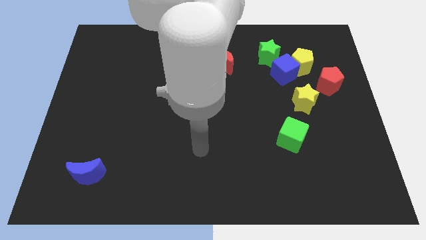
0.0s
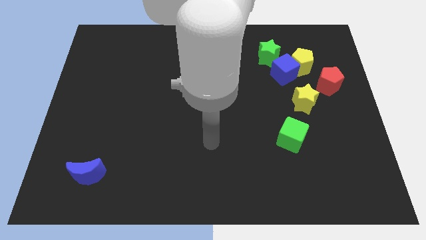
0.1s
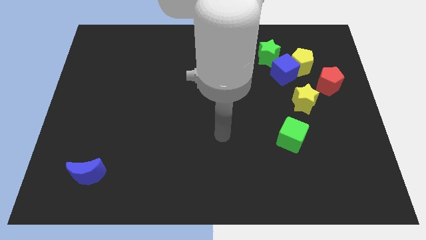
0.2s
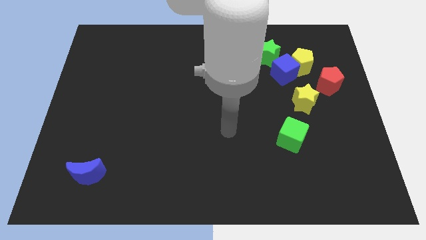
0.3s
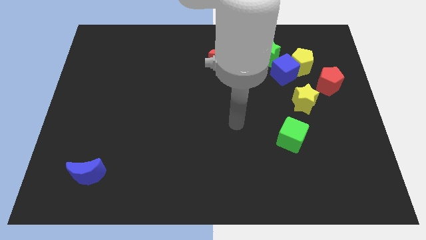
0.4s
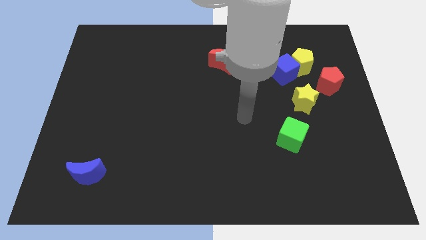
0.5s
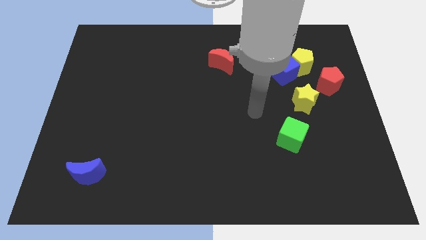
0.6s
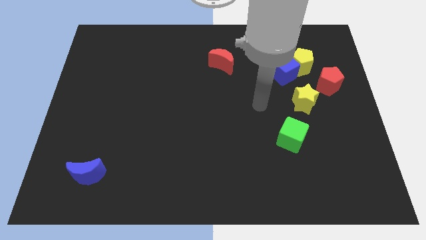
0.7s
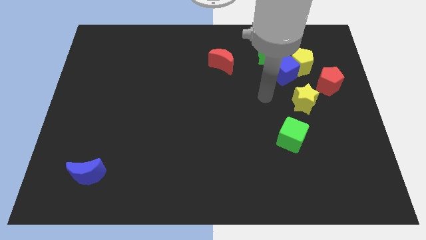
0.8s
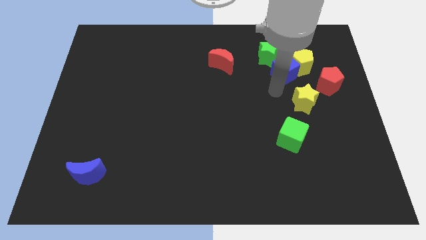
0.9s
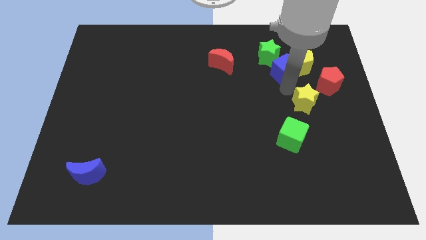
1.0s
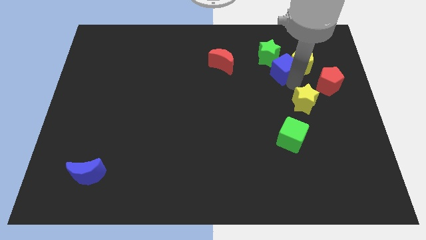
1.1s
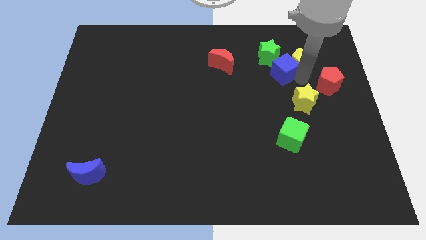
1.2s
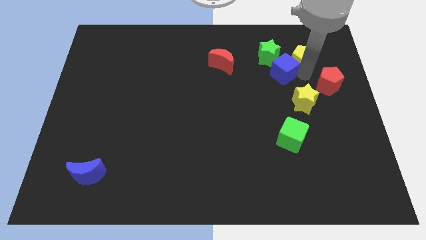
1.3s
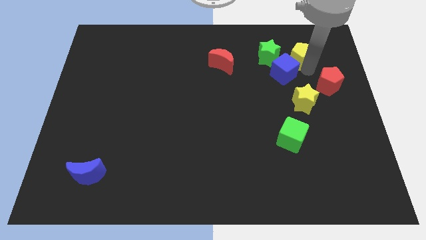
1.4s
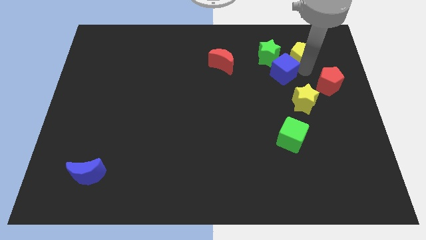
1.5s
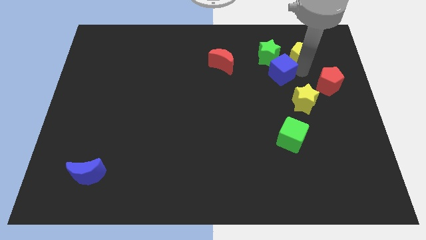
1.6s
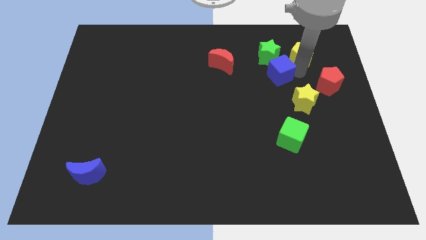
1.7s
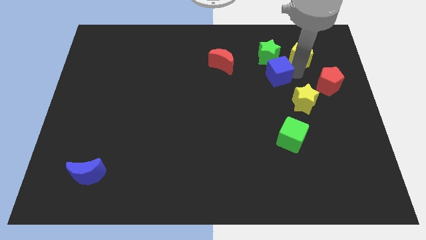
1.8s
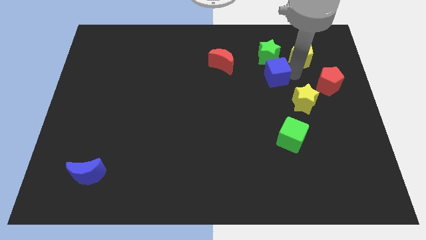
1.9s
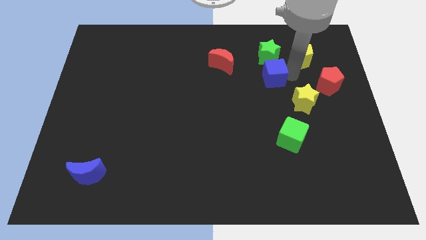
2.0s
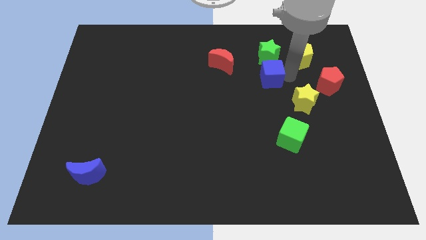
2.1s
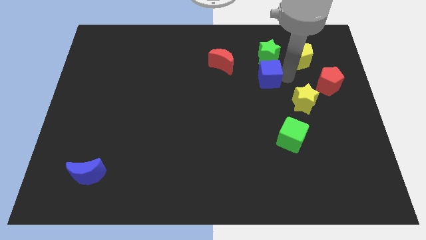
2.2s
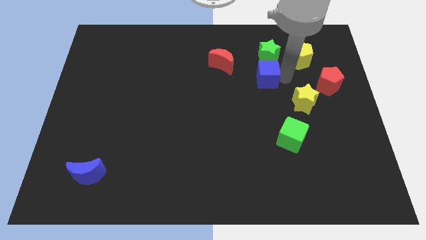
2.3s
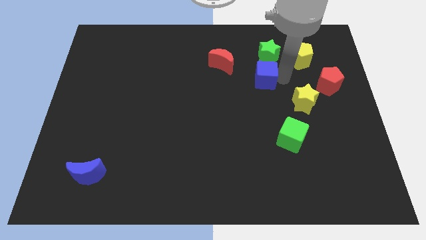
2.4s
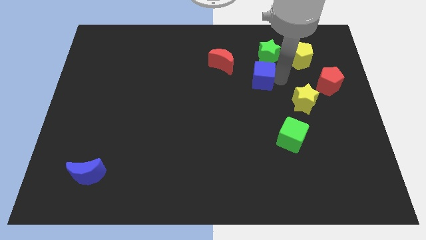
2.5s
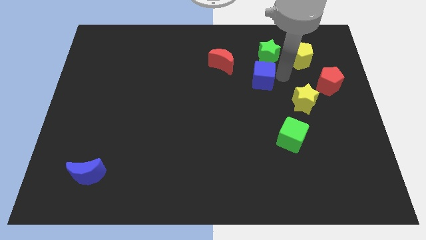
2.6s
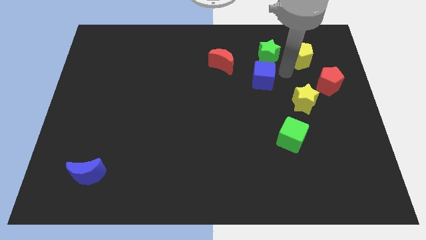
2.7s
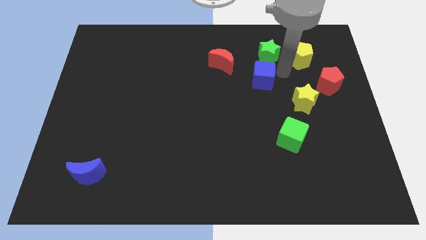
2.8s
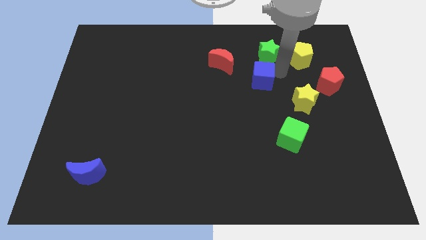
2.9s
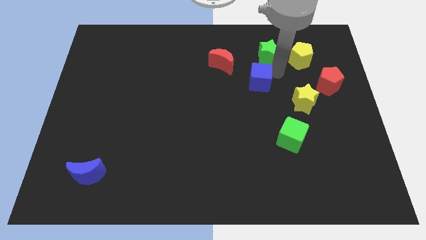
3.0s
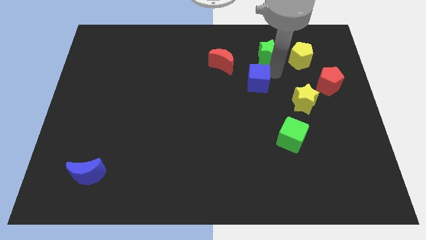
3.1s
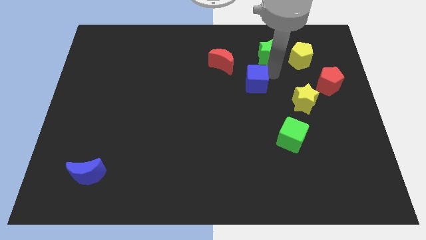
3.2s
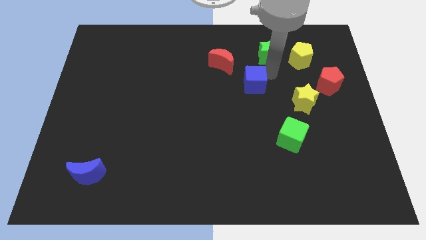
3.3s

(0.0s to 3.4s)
separate the blue cube from the clump

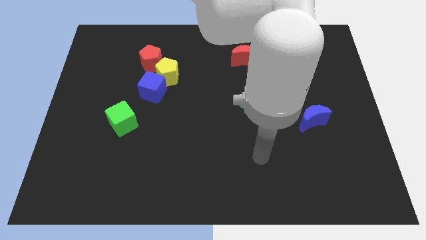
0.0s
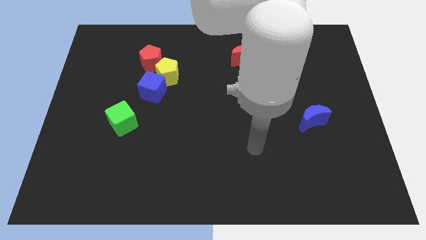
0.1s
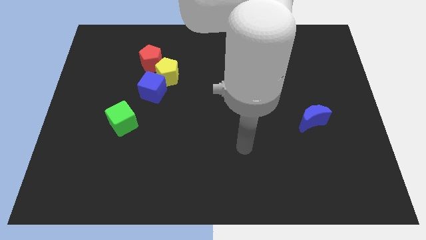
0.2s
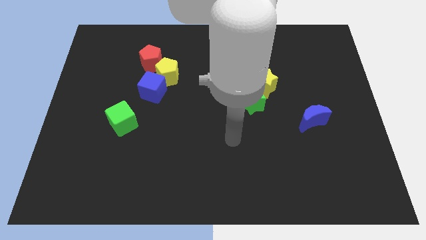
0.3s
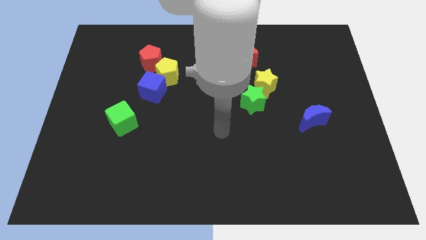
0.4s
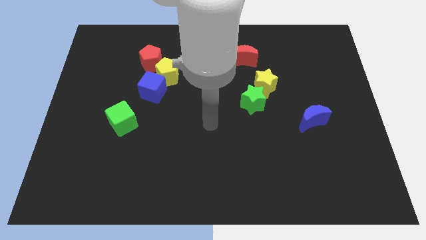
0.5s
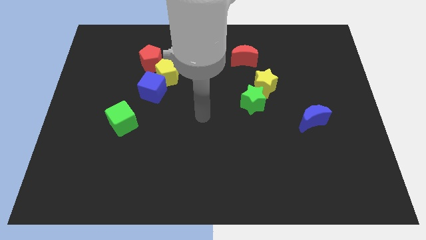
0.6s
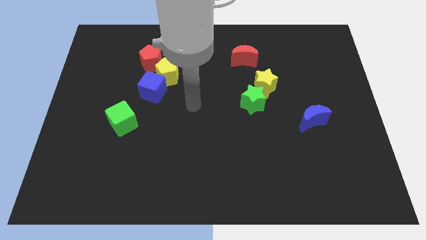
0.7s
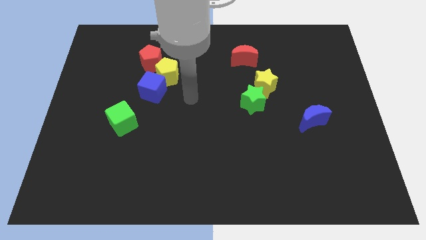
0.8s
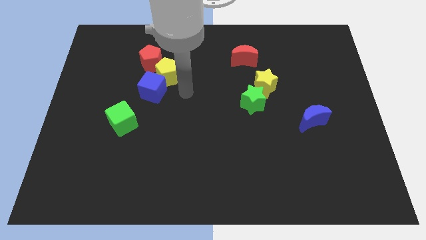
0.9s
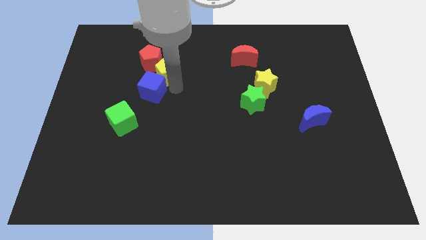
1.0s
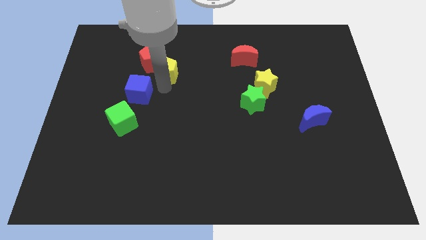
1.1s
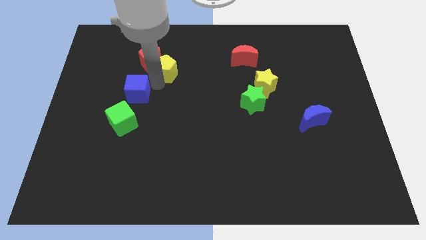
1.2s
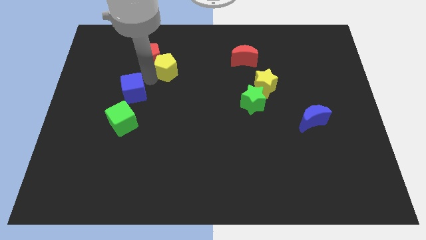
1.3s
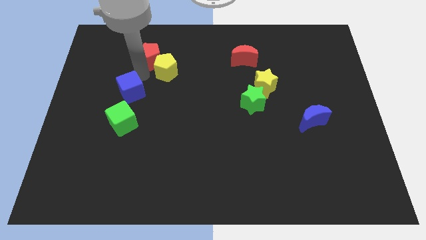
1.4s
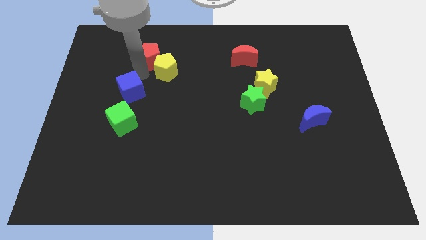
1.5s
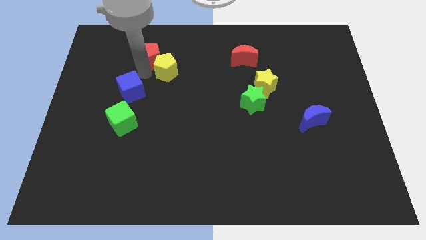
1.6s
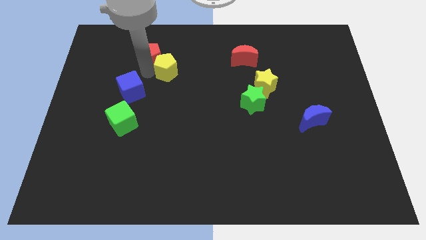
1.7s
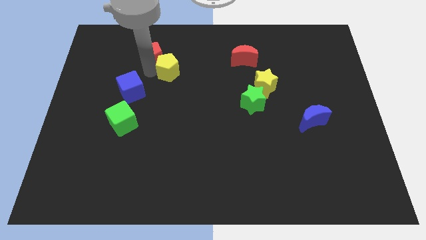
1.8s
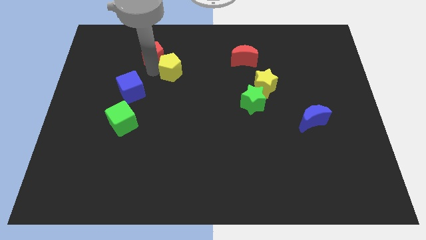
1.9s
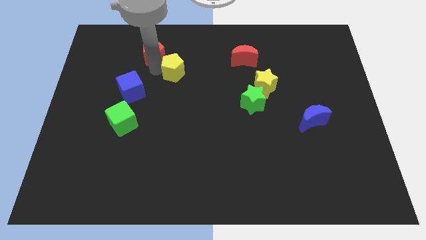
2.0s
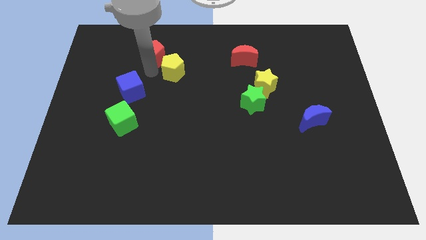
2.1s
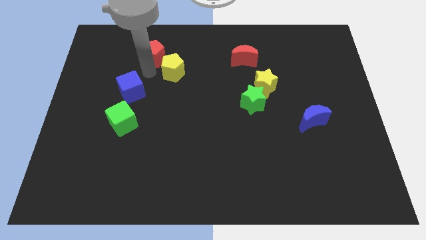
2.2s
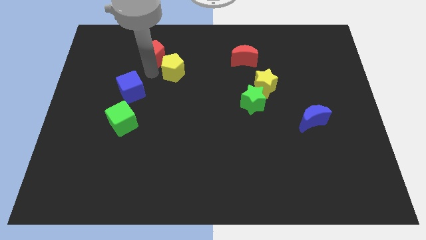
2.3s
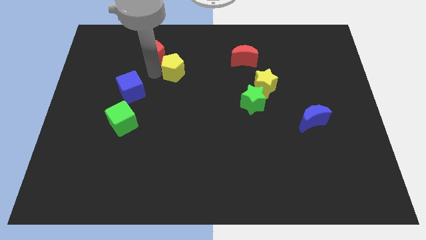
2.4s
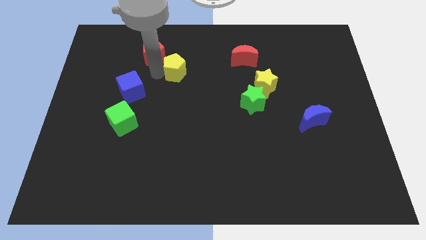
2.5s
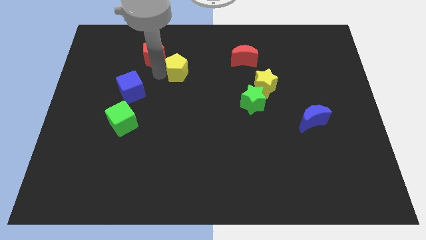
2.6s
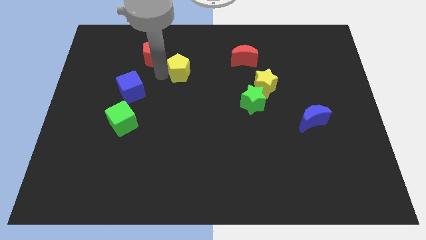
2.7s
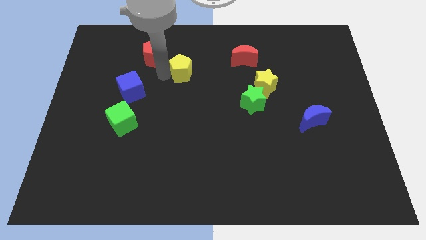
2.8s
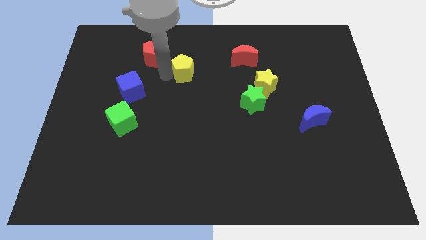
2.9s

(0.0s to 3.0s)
pull the yellow pentagon apart from the blue cube and red pentagon

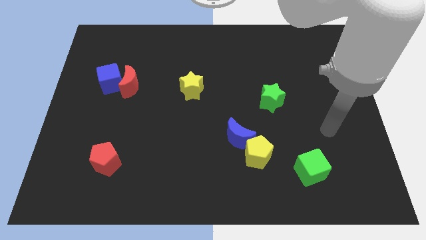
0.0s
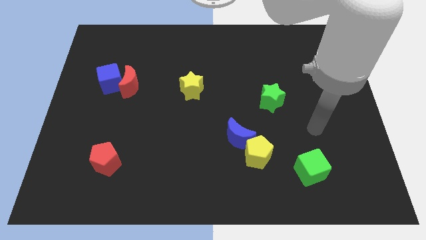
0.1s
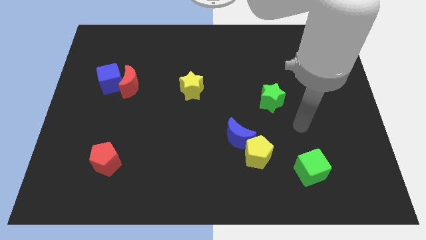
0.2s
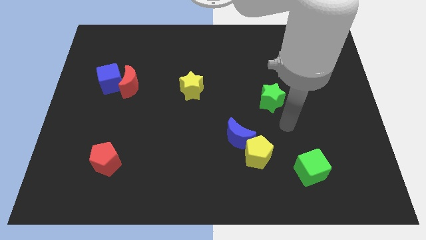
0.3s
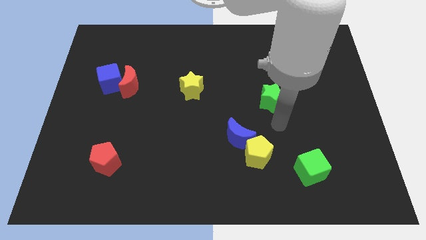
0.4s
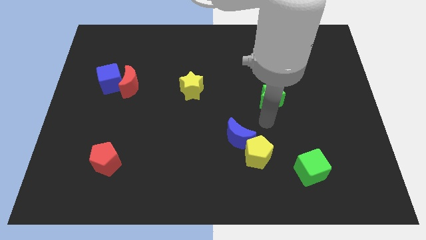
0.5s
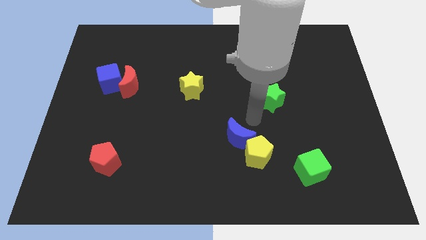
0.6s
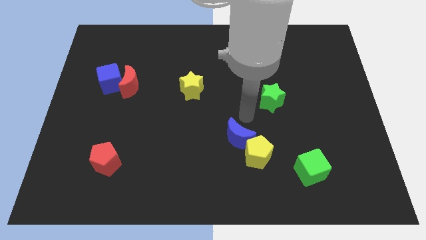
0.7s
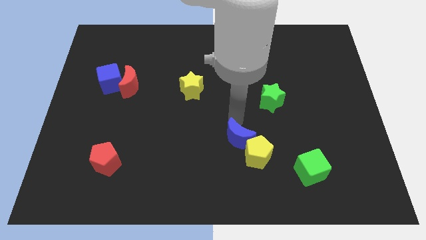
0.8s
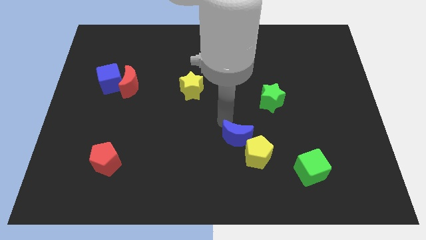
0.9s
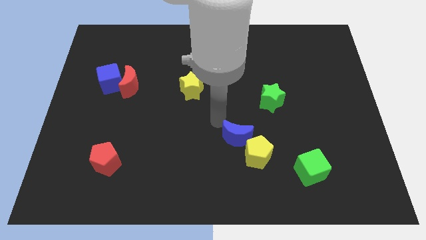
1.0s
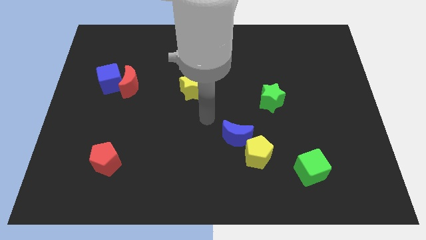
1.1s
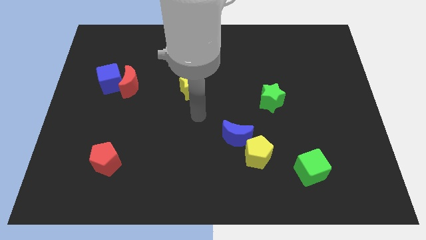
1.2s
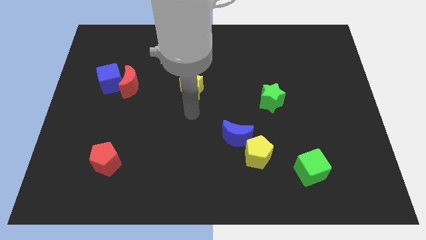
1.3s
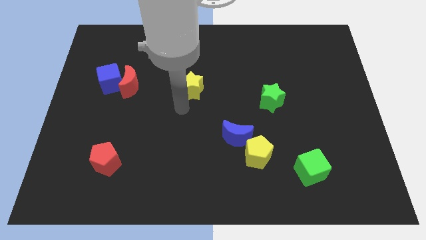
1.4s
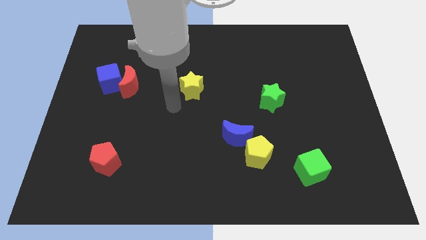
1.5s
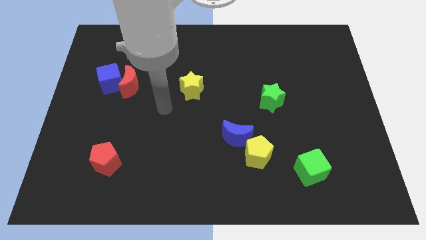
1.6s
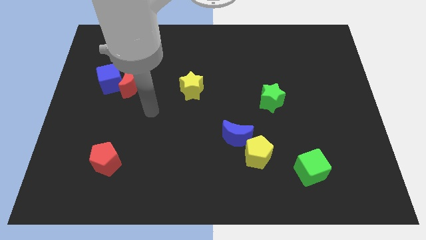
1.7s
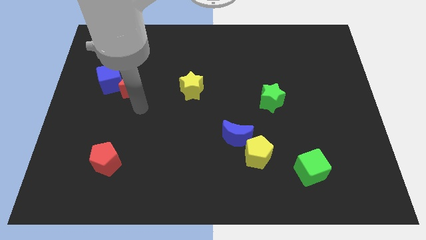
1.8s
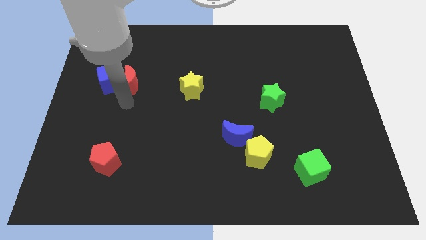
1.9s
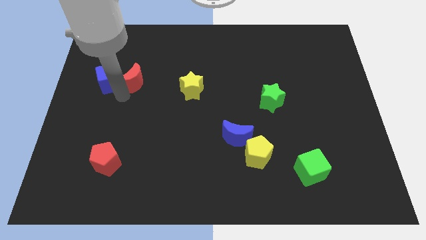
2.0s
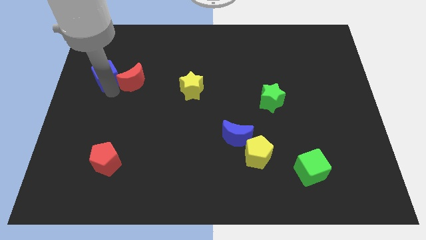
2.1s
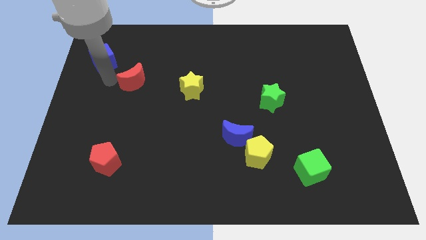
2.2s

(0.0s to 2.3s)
move the red moon away from the blue cube

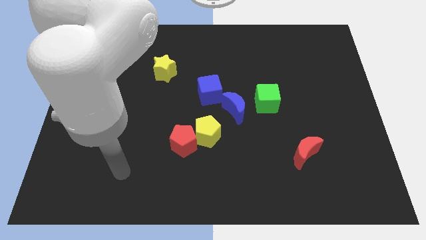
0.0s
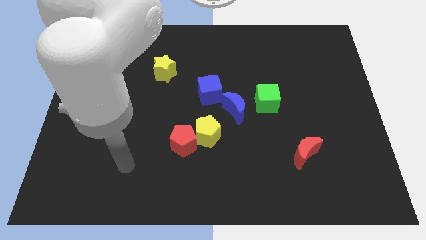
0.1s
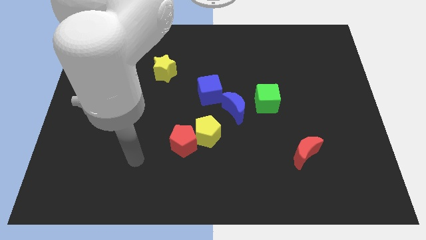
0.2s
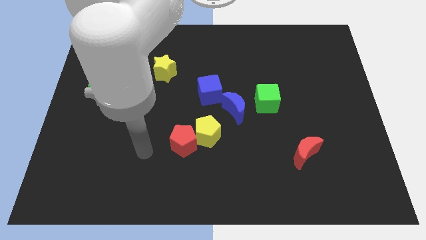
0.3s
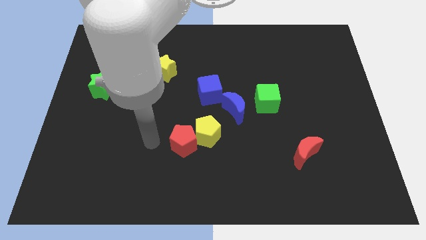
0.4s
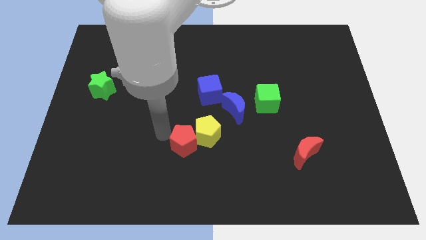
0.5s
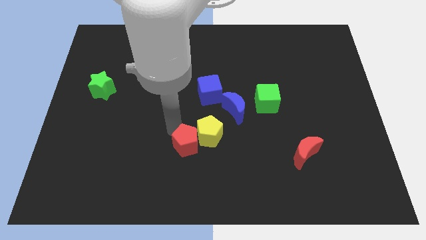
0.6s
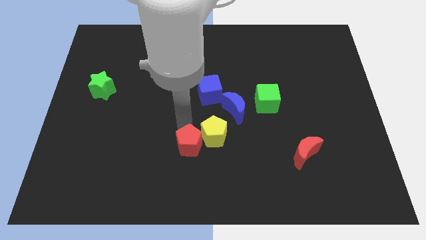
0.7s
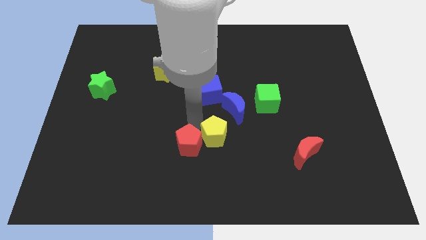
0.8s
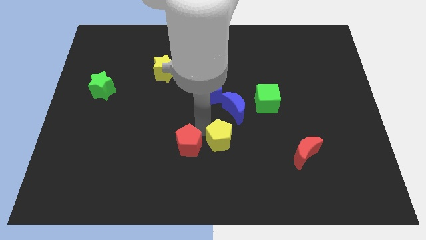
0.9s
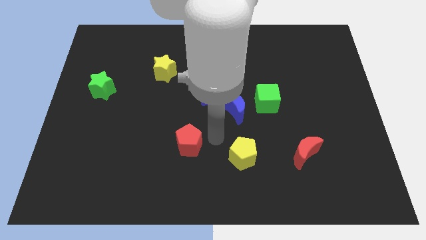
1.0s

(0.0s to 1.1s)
separate the red pentagon from the yellow pentagon
